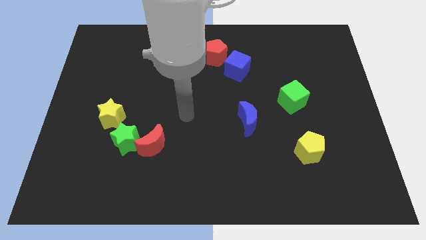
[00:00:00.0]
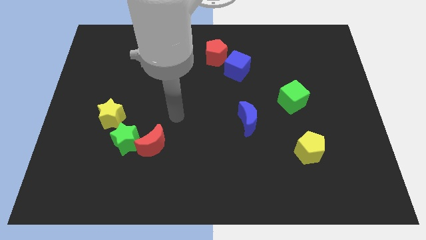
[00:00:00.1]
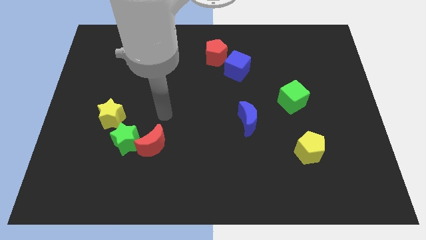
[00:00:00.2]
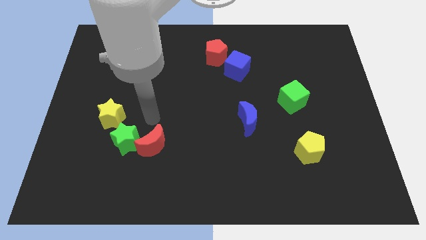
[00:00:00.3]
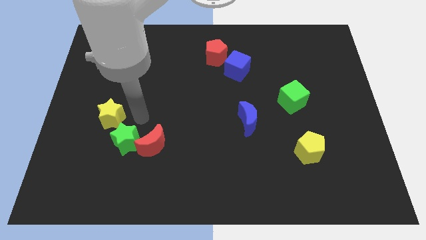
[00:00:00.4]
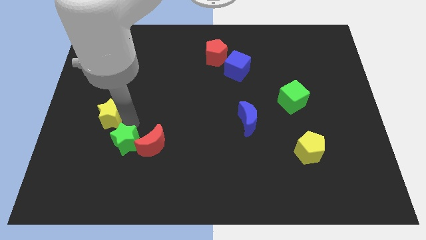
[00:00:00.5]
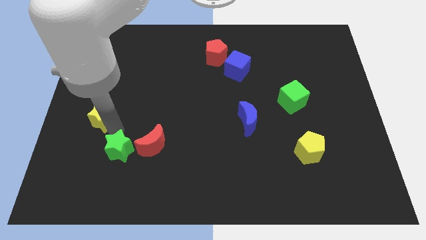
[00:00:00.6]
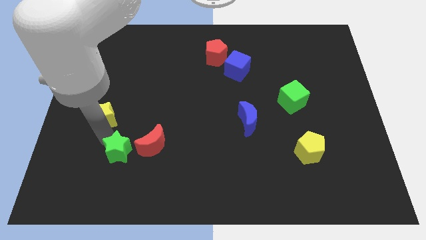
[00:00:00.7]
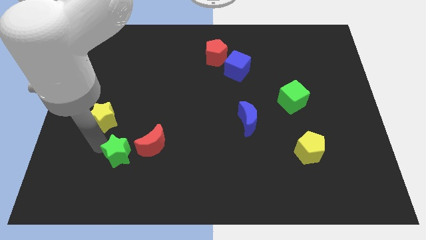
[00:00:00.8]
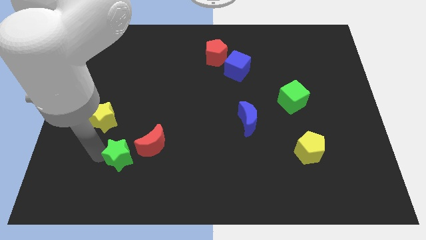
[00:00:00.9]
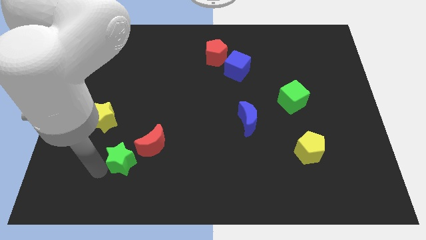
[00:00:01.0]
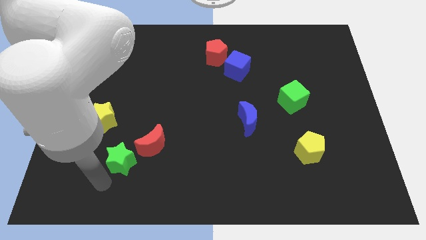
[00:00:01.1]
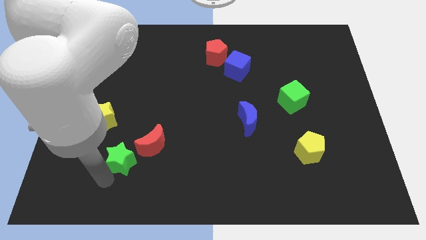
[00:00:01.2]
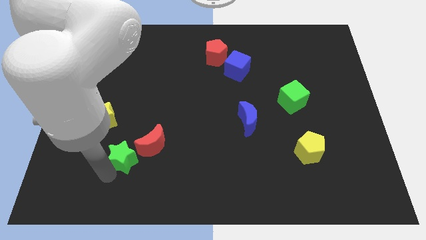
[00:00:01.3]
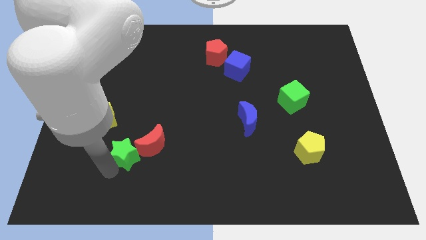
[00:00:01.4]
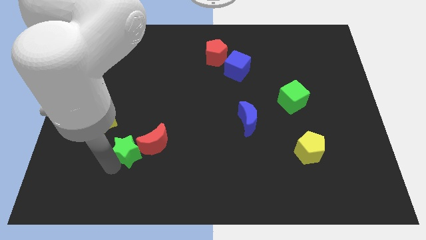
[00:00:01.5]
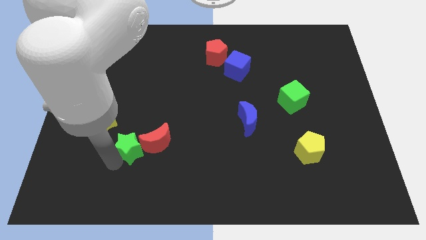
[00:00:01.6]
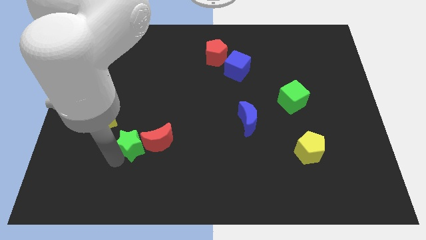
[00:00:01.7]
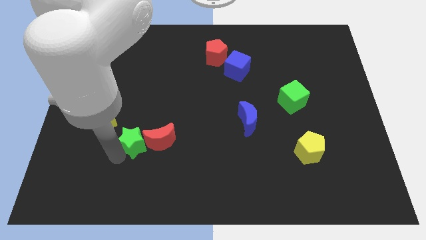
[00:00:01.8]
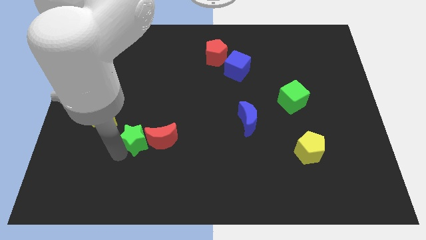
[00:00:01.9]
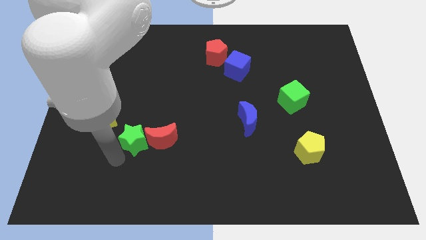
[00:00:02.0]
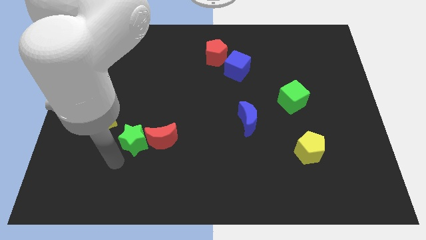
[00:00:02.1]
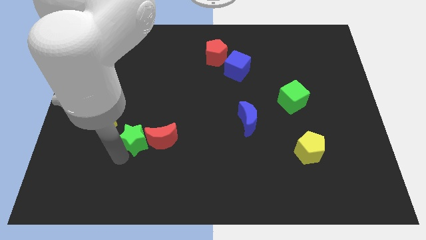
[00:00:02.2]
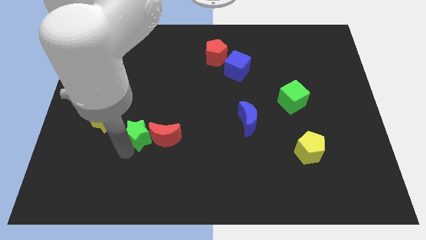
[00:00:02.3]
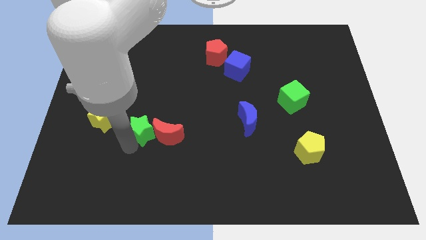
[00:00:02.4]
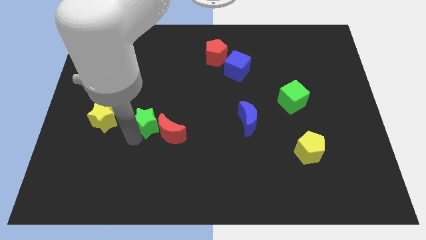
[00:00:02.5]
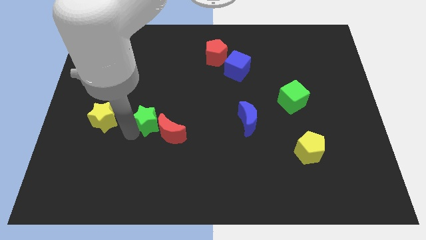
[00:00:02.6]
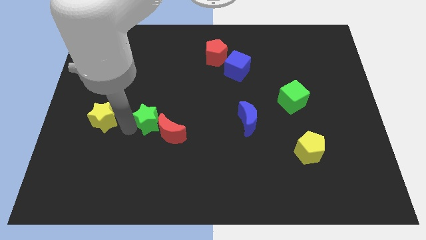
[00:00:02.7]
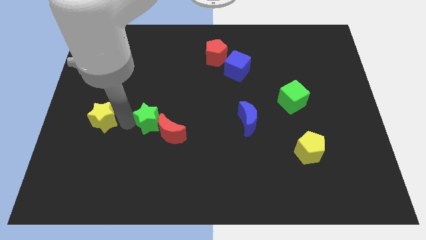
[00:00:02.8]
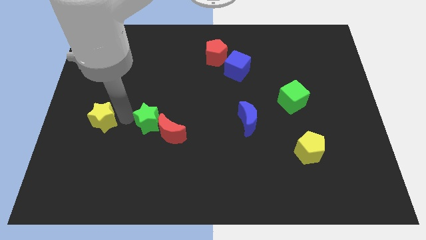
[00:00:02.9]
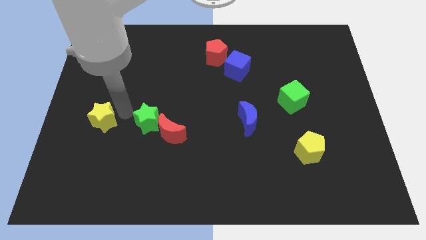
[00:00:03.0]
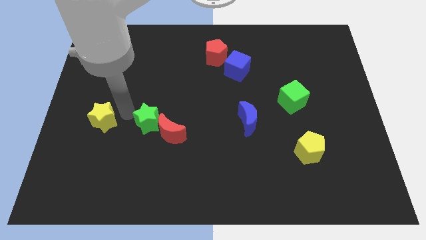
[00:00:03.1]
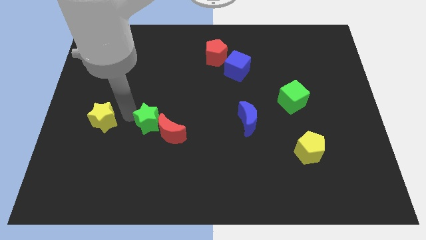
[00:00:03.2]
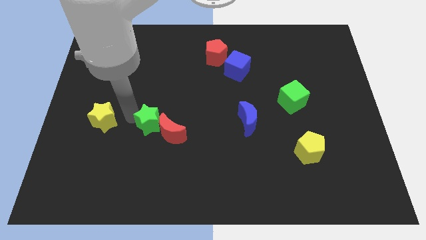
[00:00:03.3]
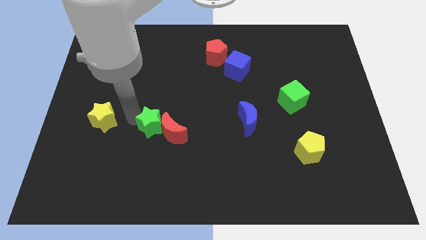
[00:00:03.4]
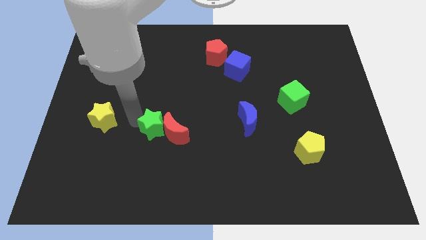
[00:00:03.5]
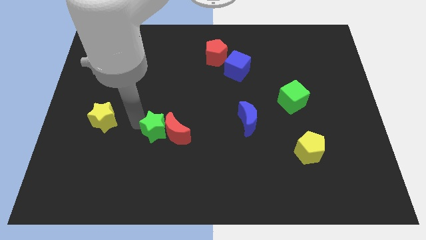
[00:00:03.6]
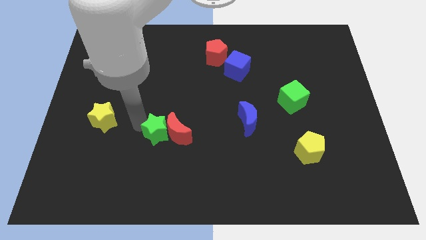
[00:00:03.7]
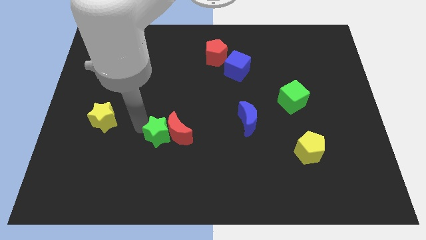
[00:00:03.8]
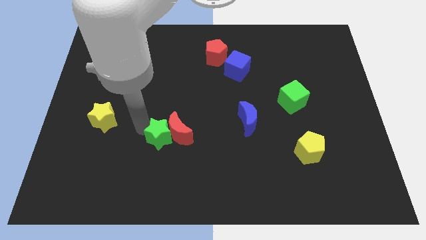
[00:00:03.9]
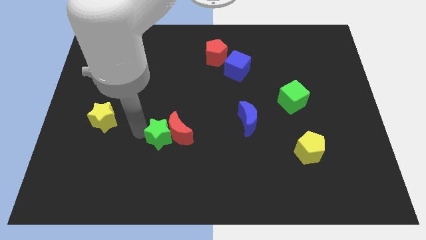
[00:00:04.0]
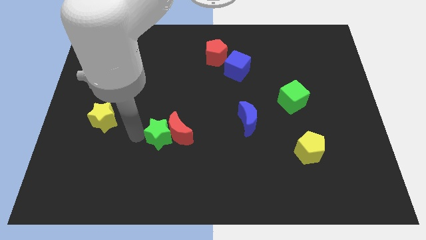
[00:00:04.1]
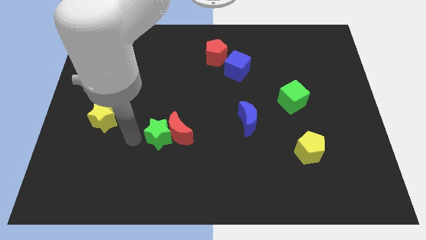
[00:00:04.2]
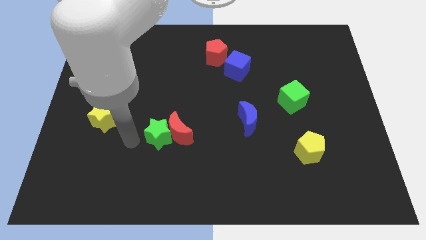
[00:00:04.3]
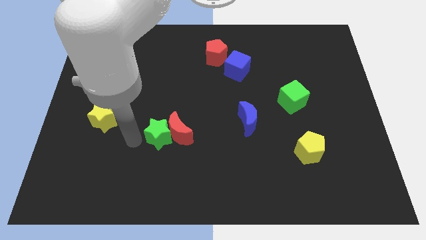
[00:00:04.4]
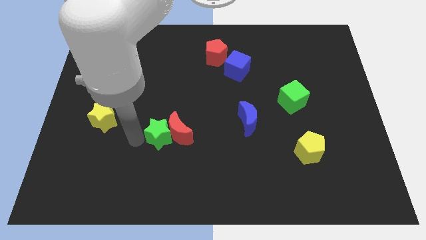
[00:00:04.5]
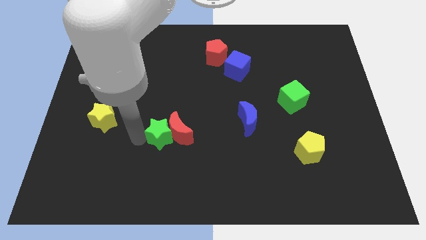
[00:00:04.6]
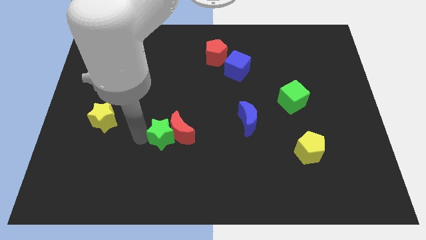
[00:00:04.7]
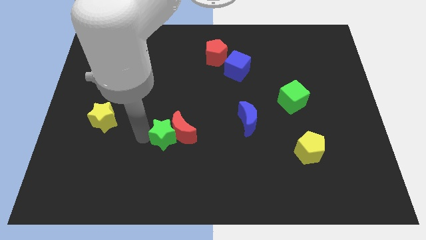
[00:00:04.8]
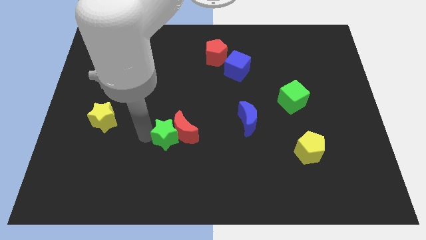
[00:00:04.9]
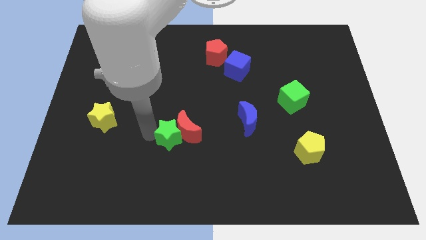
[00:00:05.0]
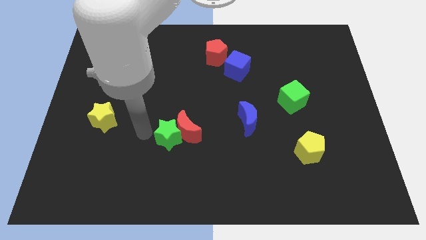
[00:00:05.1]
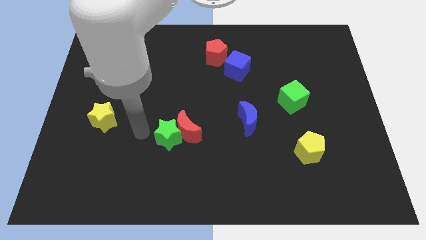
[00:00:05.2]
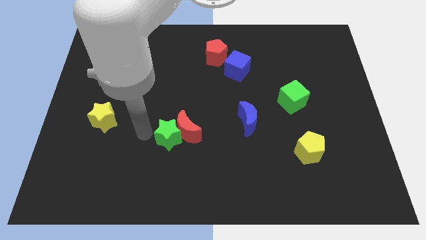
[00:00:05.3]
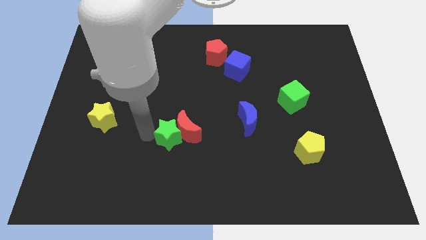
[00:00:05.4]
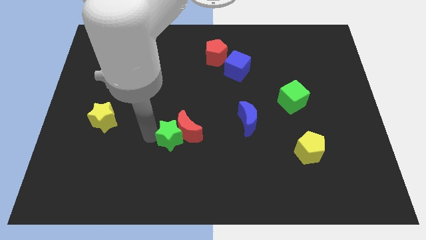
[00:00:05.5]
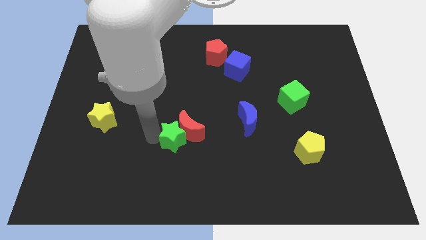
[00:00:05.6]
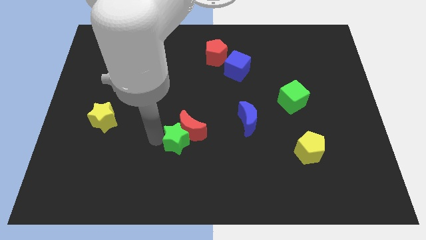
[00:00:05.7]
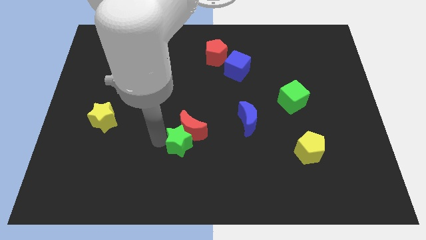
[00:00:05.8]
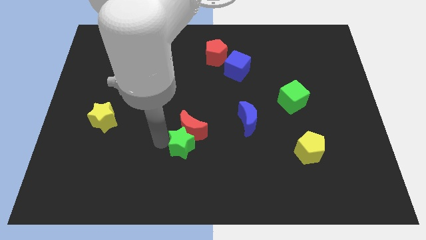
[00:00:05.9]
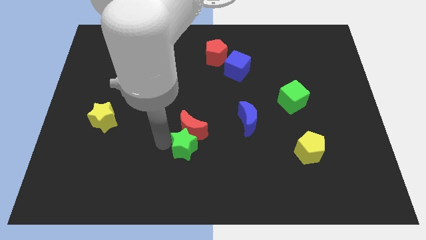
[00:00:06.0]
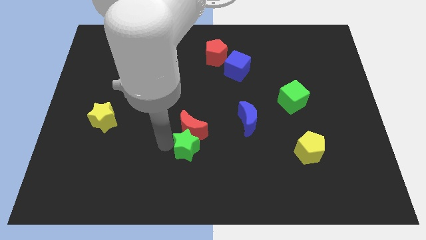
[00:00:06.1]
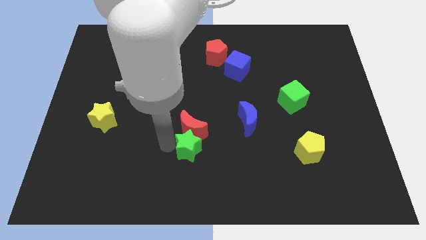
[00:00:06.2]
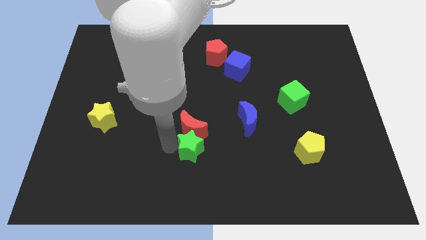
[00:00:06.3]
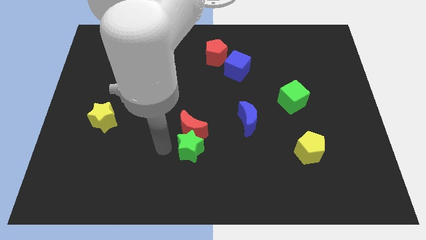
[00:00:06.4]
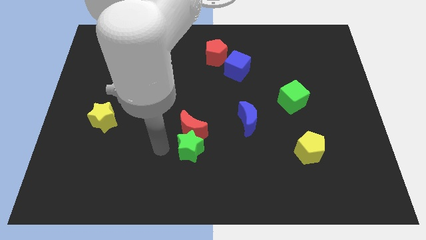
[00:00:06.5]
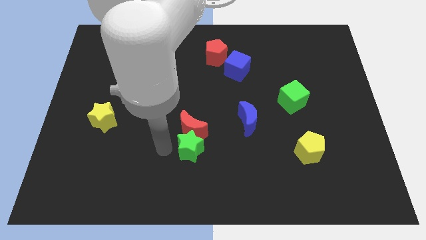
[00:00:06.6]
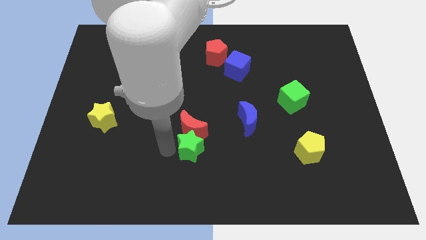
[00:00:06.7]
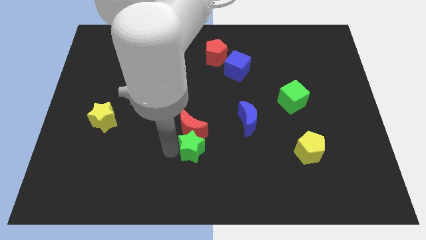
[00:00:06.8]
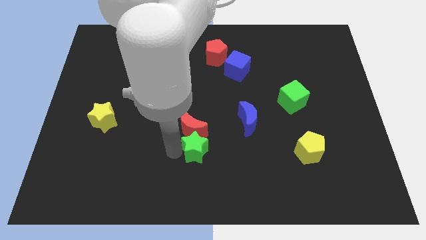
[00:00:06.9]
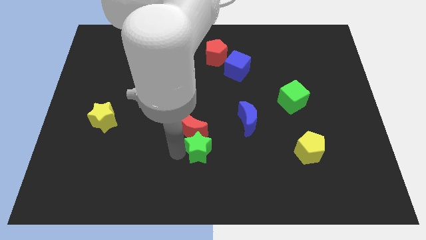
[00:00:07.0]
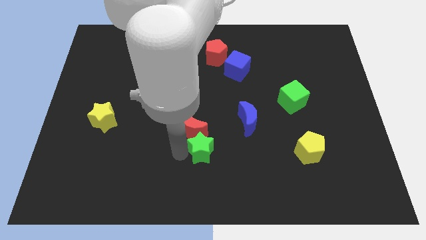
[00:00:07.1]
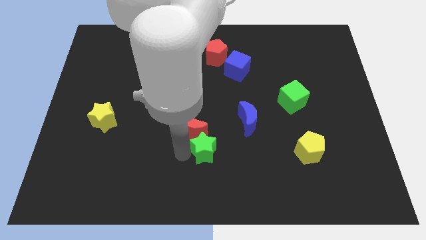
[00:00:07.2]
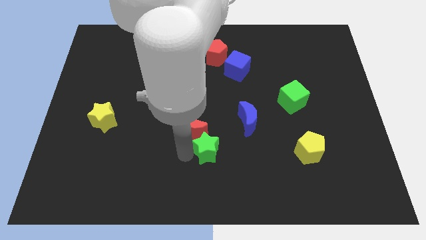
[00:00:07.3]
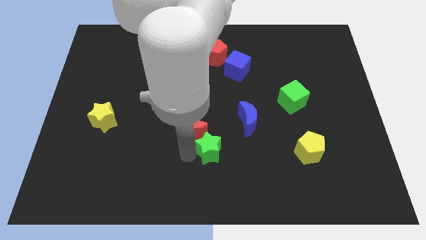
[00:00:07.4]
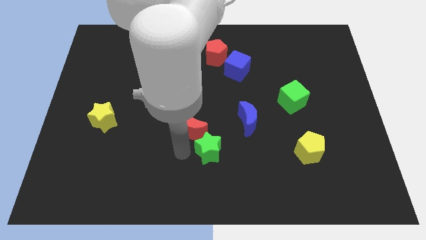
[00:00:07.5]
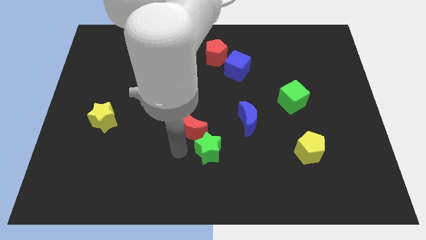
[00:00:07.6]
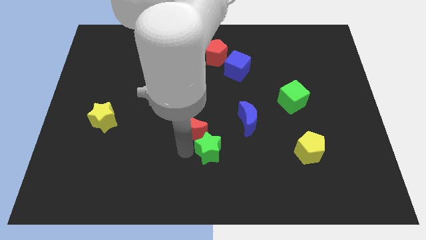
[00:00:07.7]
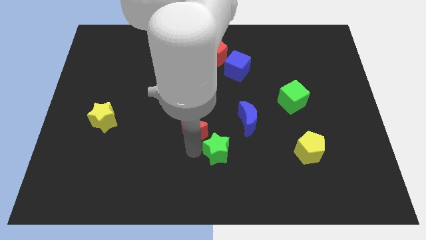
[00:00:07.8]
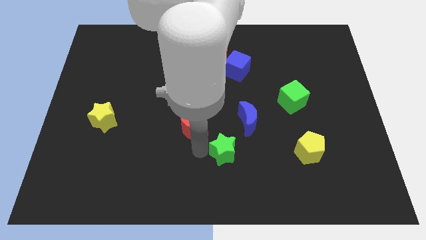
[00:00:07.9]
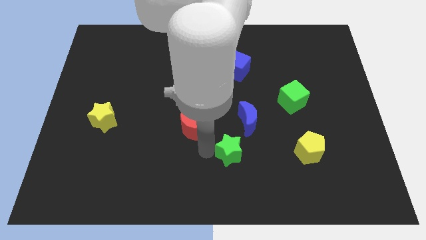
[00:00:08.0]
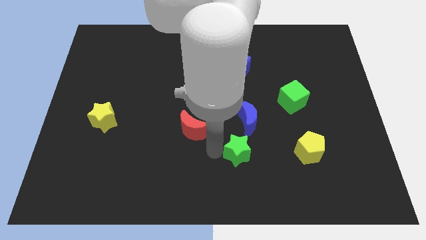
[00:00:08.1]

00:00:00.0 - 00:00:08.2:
slide the green star to the left of the yellow pentagon
